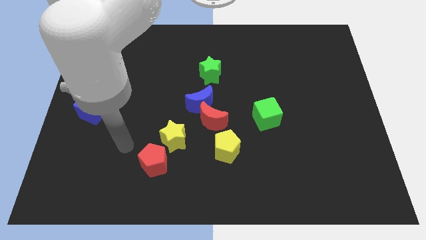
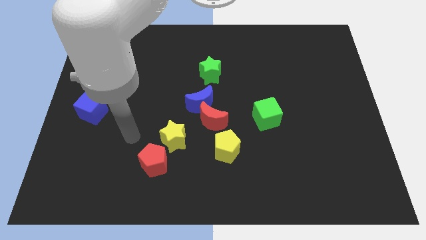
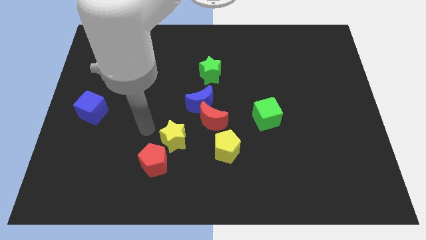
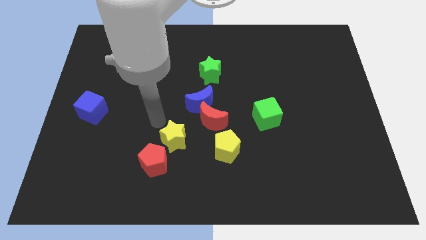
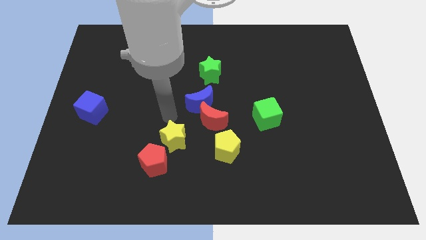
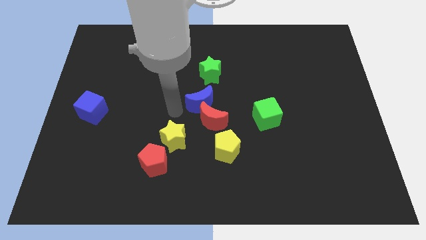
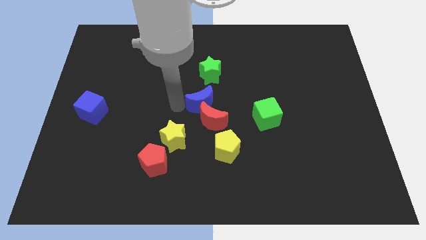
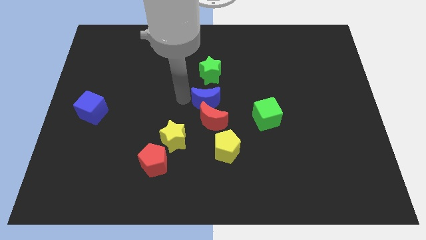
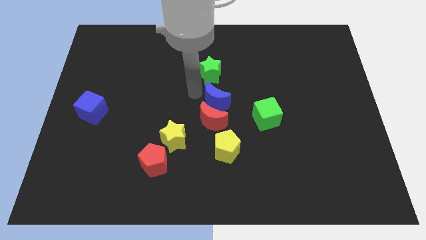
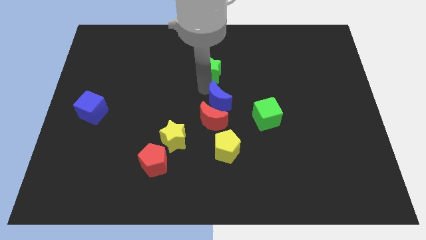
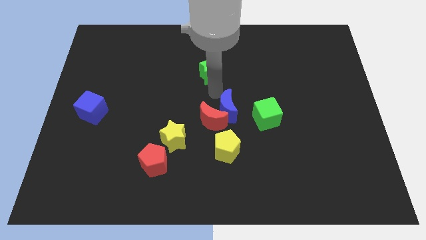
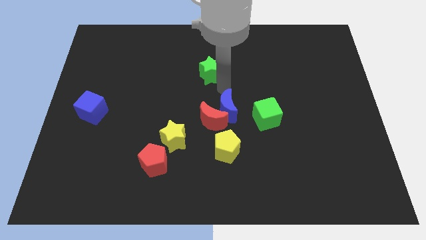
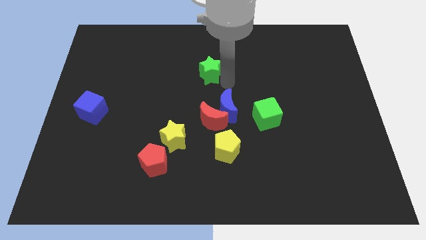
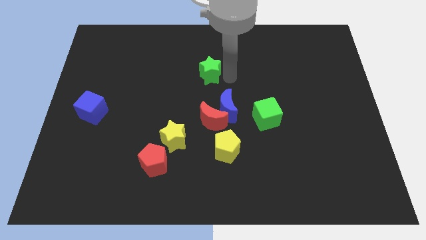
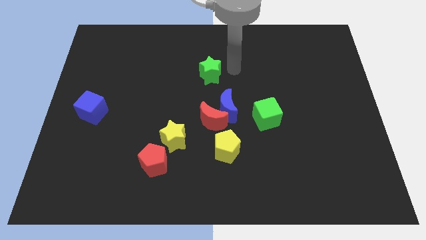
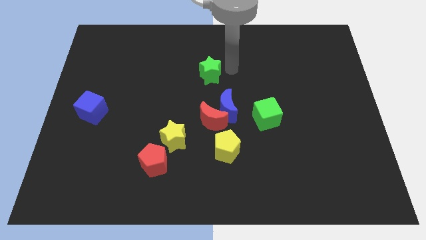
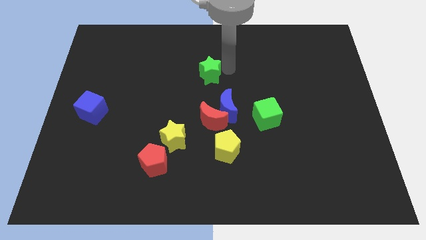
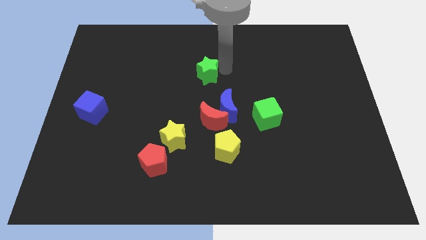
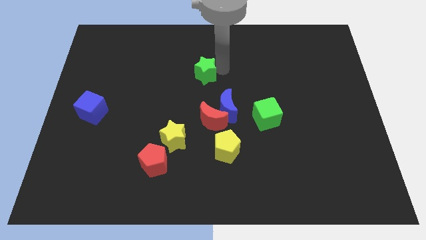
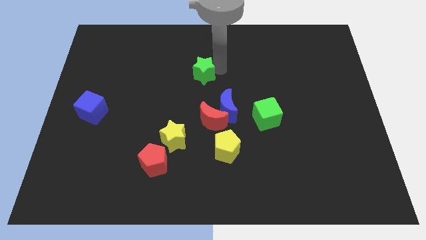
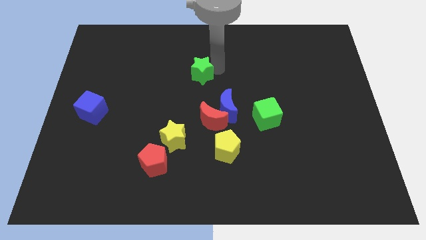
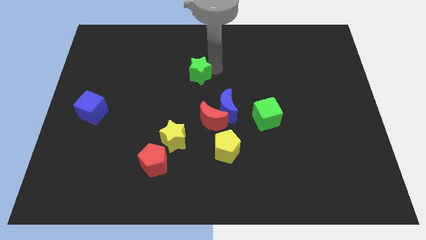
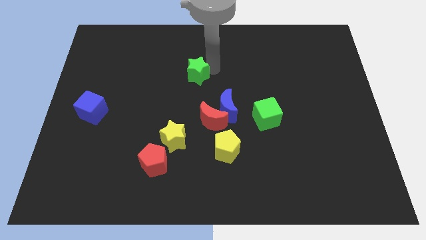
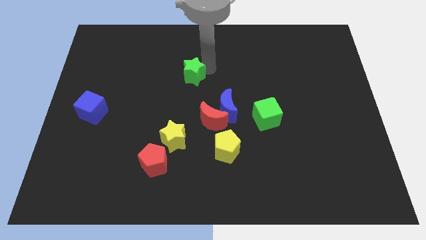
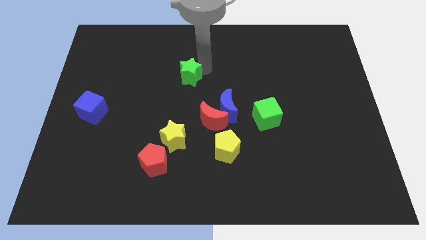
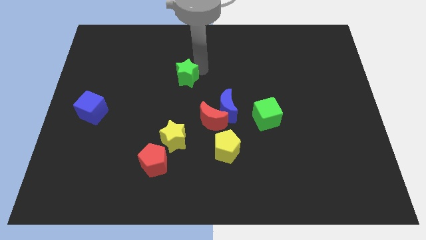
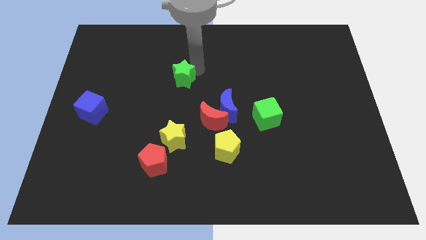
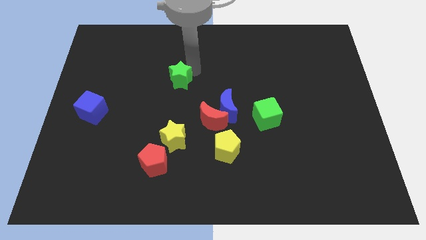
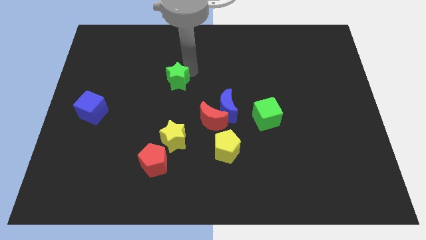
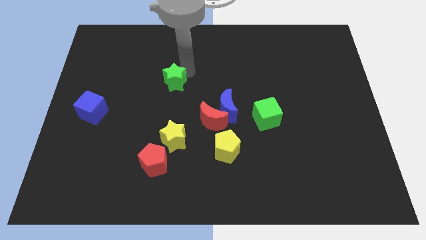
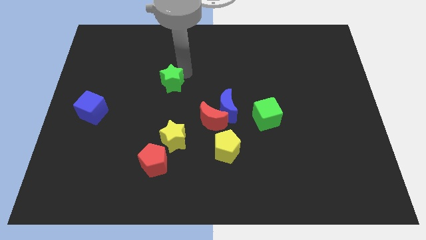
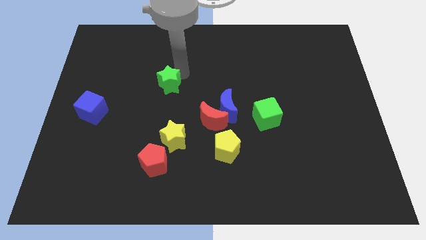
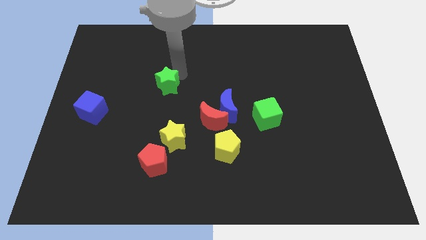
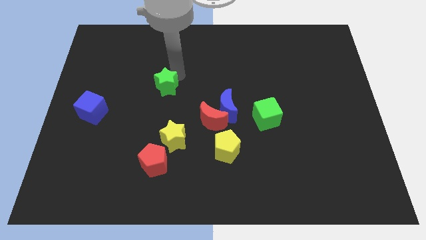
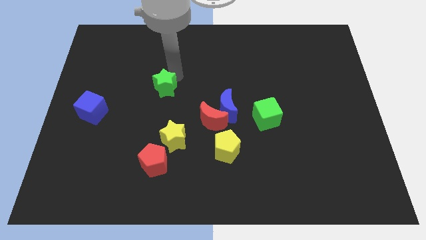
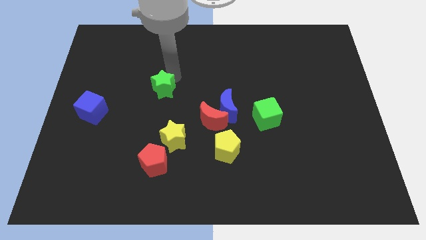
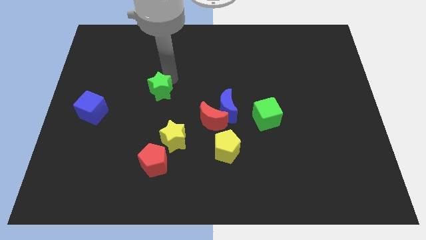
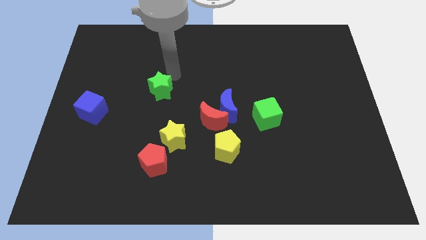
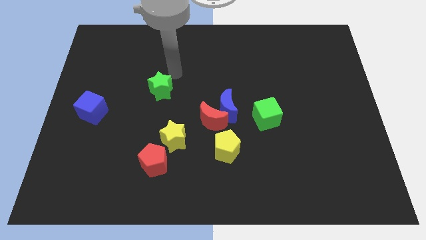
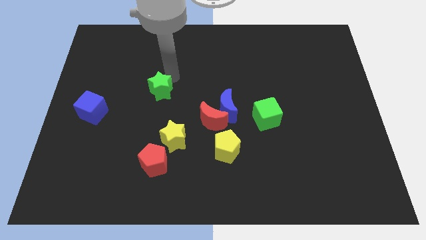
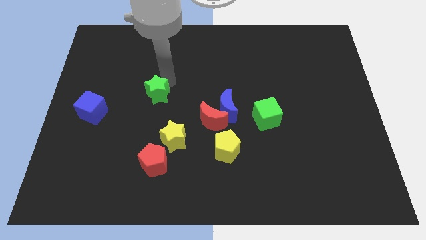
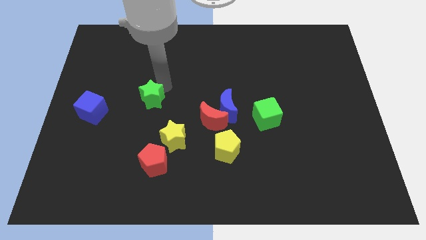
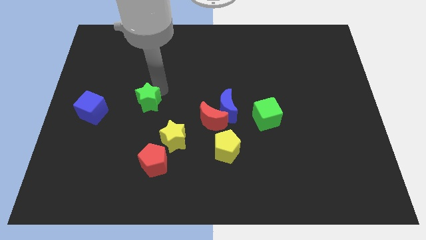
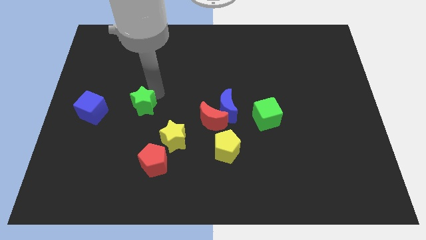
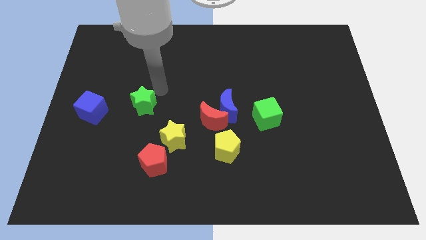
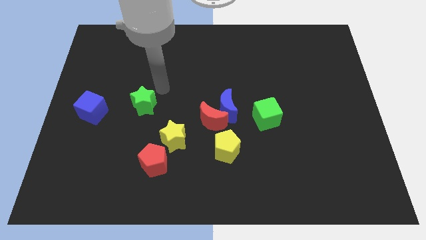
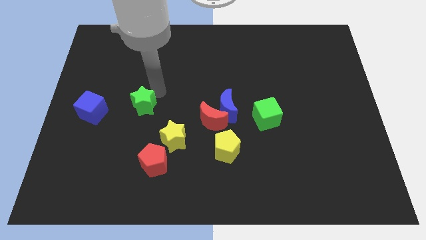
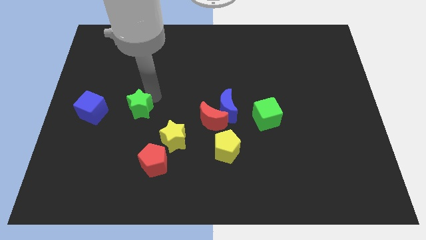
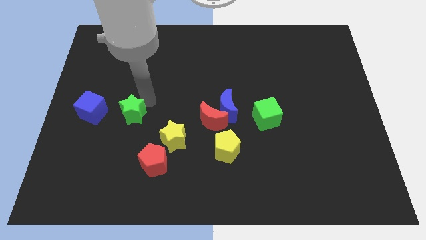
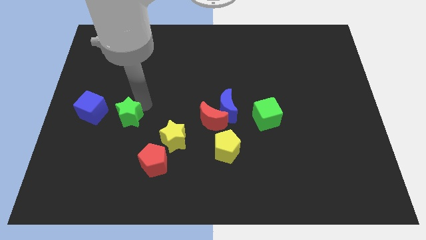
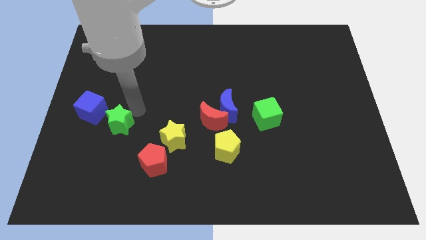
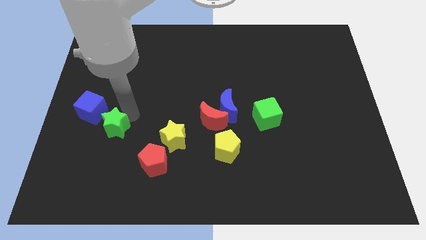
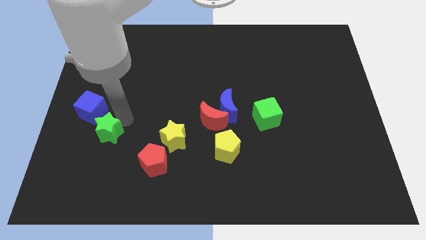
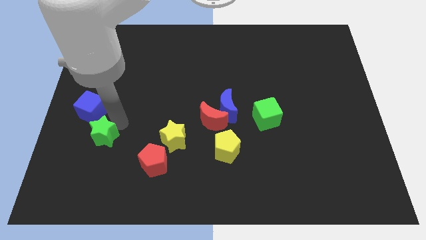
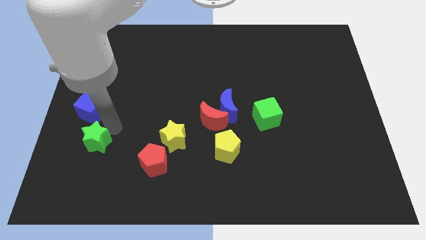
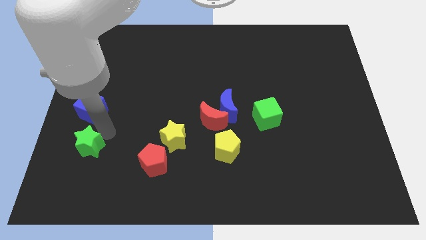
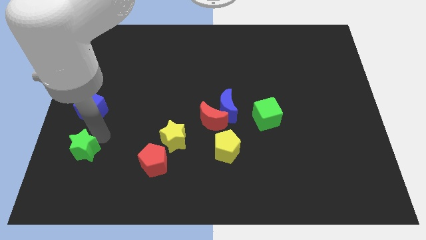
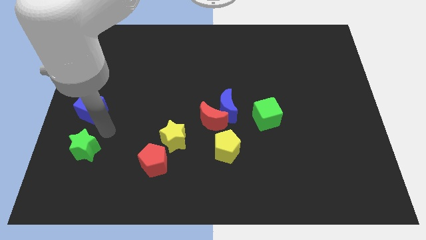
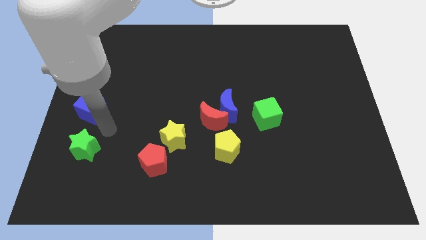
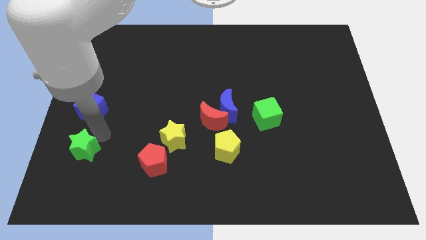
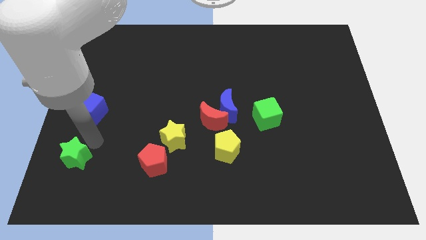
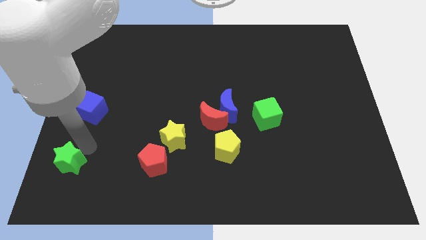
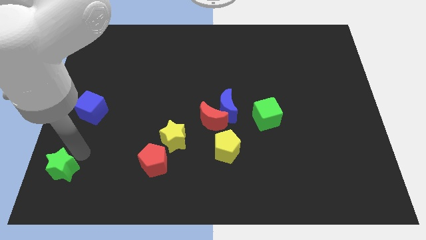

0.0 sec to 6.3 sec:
push the green star to the bottom left corner
